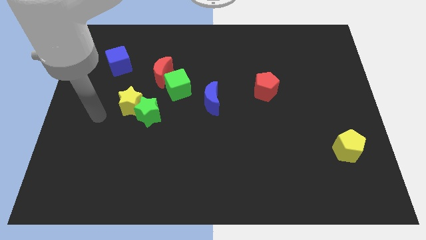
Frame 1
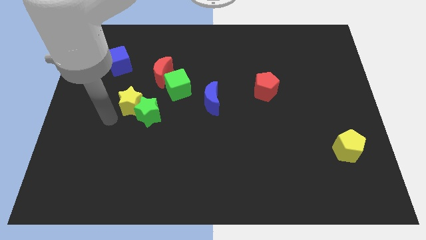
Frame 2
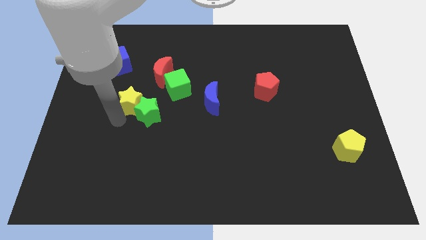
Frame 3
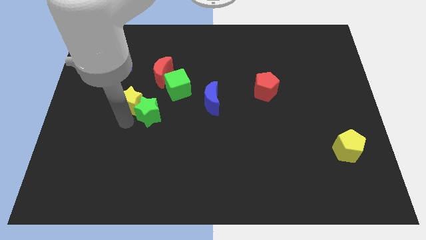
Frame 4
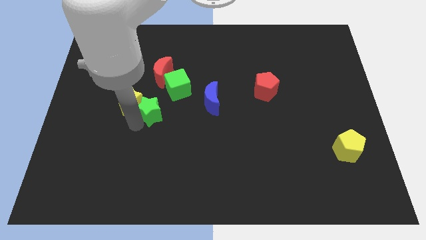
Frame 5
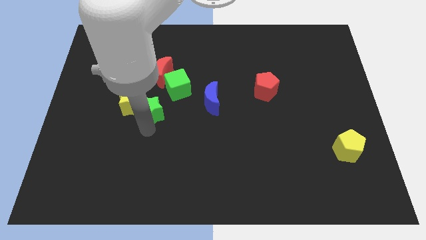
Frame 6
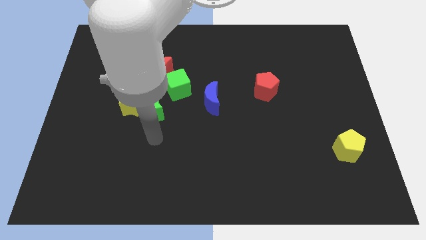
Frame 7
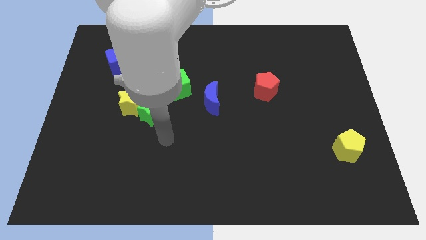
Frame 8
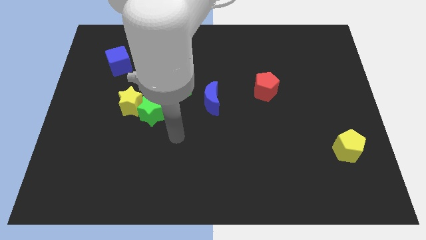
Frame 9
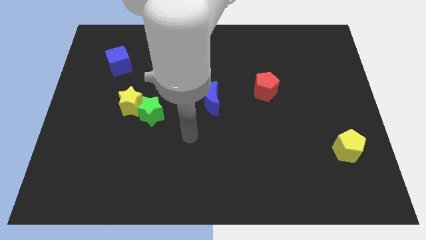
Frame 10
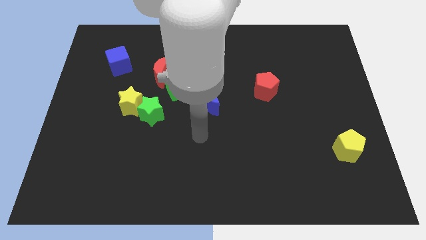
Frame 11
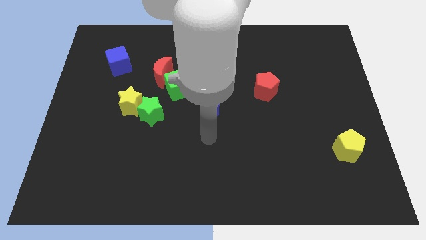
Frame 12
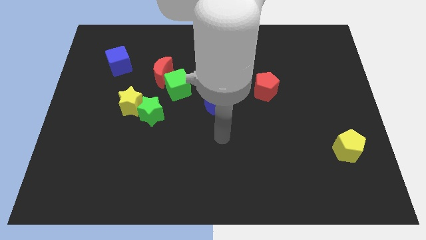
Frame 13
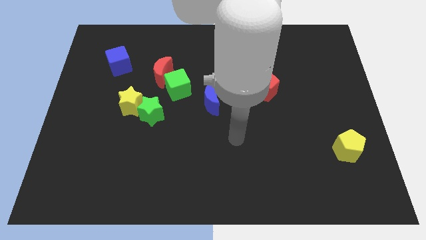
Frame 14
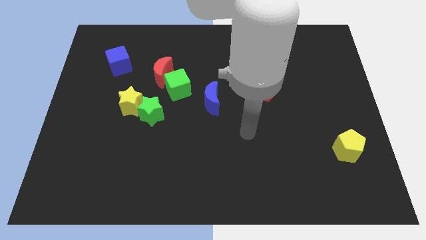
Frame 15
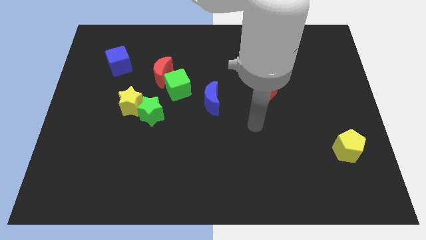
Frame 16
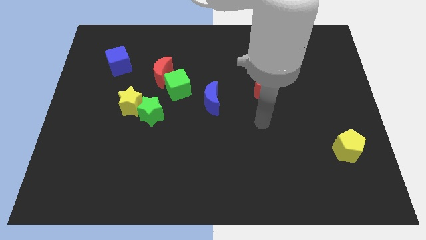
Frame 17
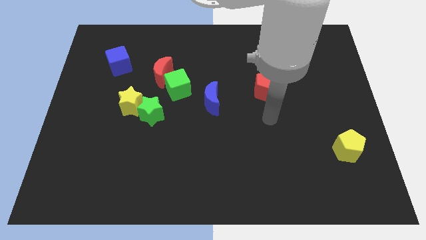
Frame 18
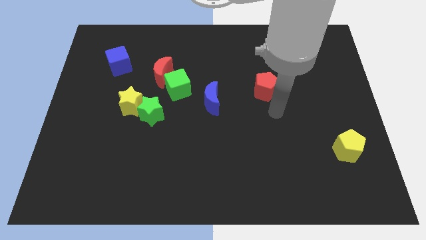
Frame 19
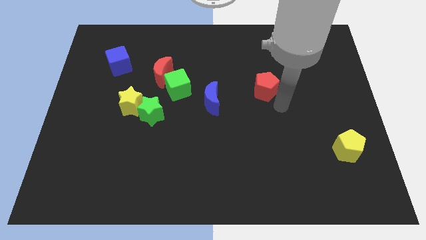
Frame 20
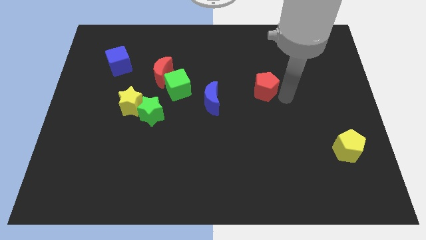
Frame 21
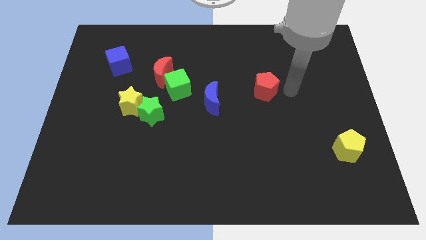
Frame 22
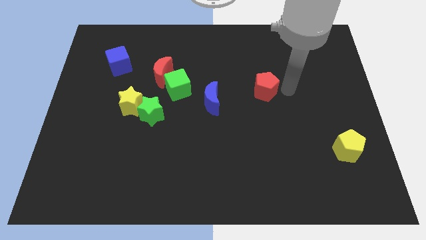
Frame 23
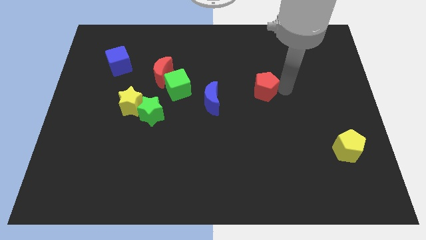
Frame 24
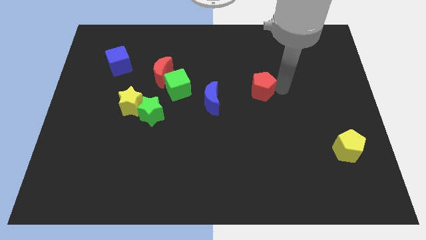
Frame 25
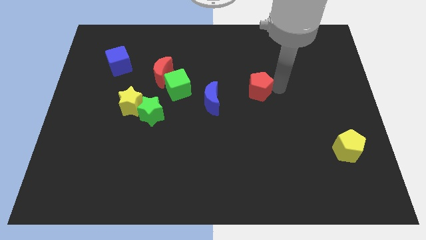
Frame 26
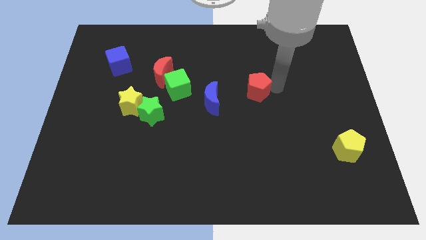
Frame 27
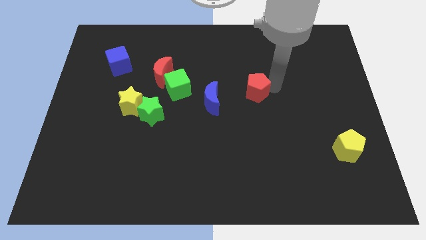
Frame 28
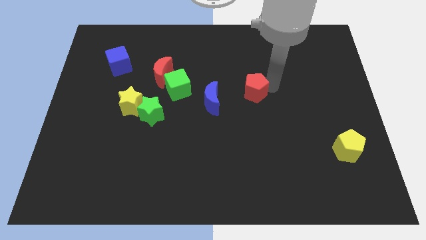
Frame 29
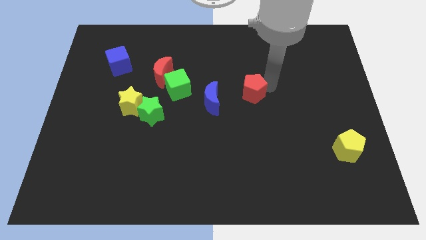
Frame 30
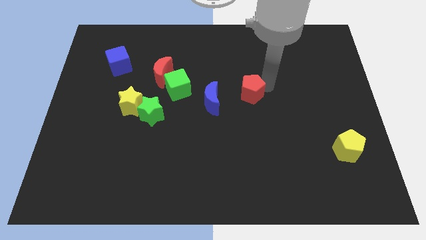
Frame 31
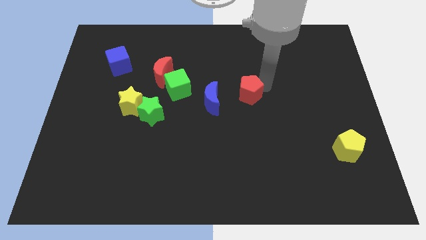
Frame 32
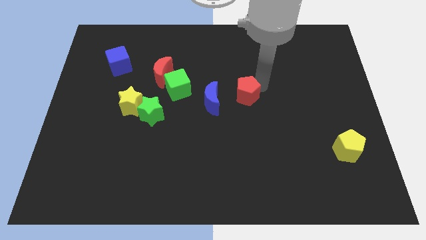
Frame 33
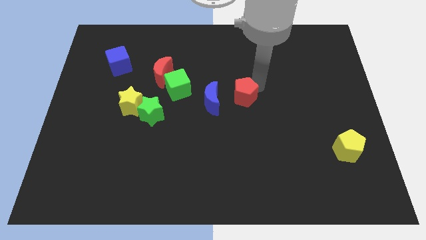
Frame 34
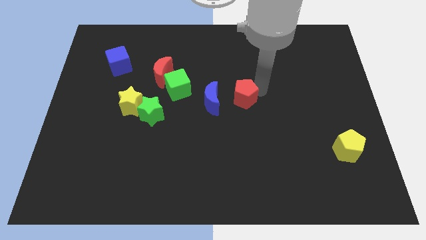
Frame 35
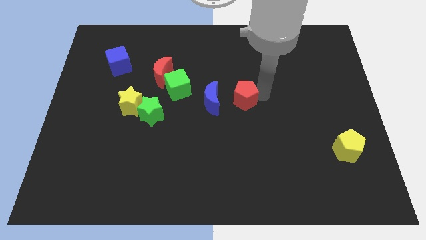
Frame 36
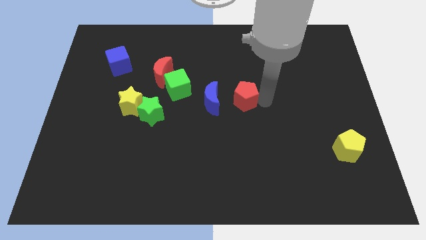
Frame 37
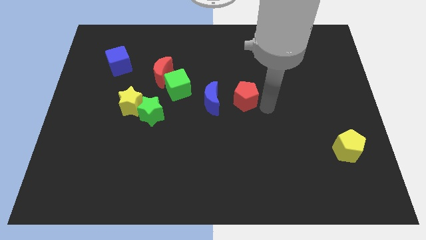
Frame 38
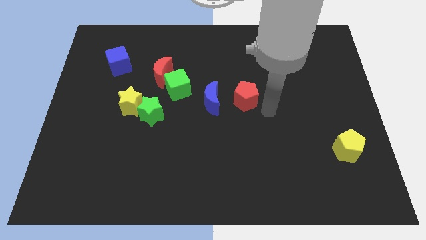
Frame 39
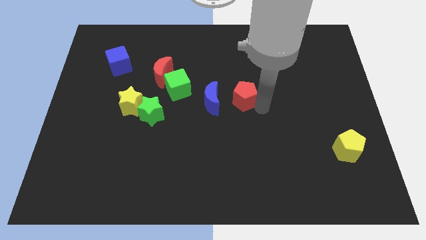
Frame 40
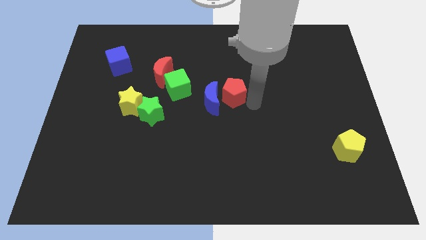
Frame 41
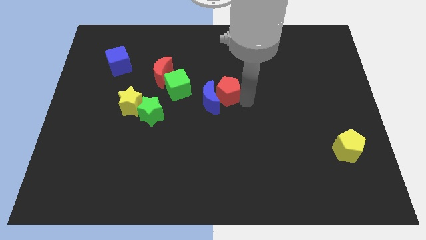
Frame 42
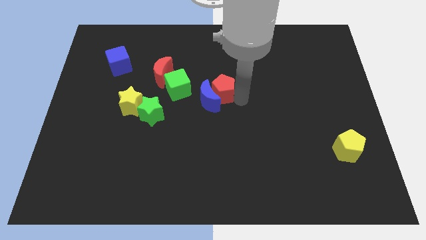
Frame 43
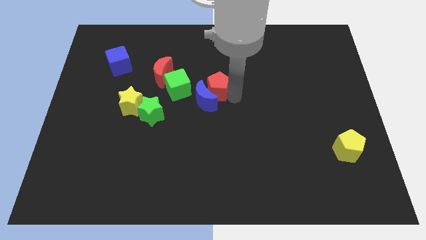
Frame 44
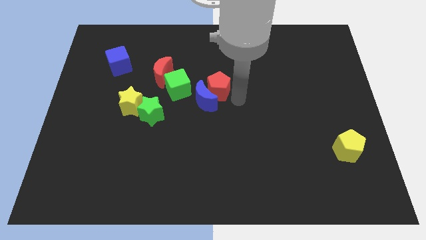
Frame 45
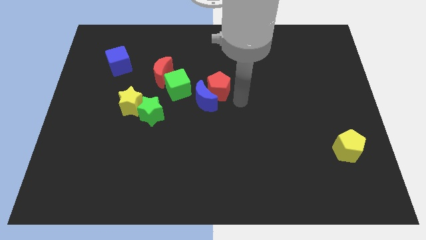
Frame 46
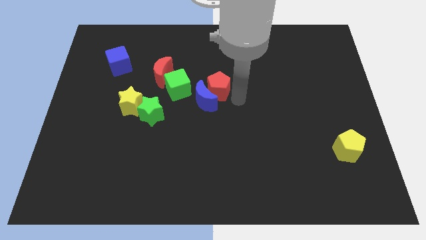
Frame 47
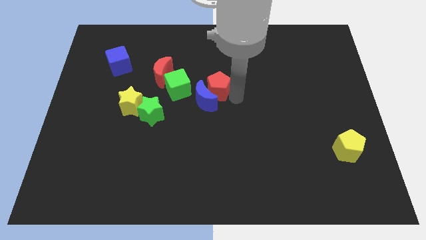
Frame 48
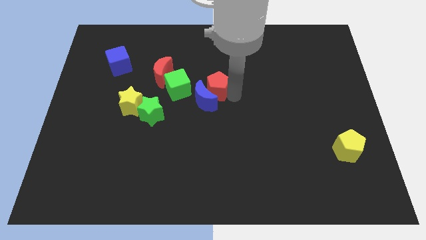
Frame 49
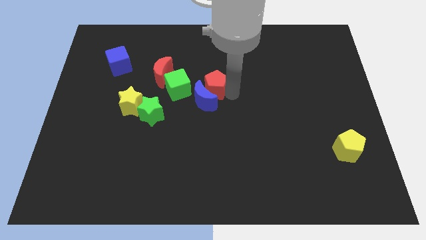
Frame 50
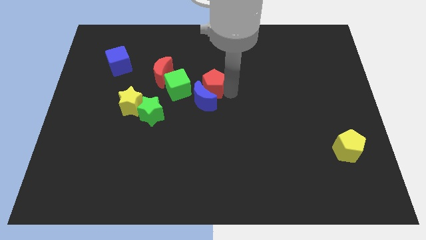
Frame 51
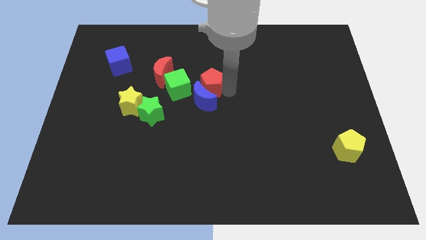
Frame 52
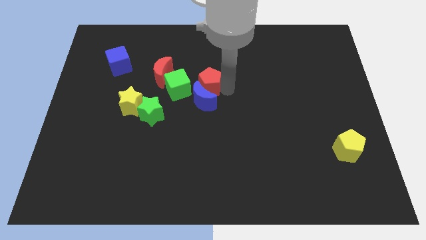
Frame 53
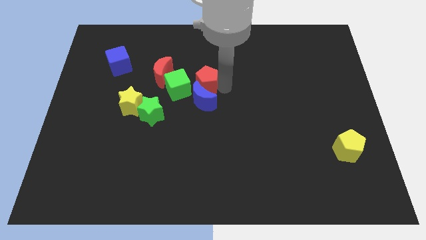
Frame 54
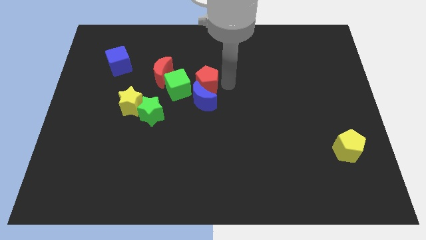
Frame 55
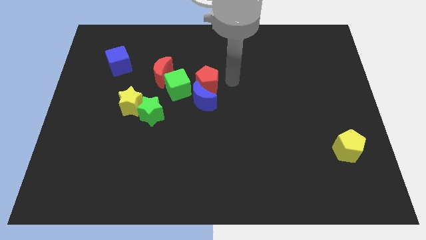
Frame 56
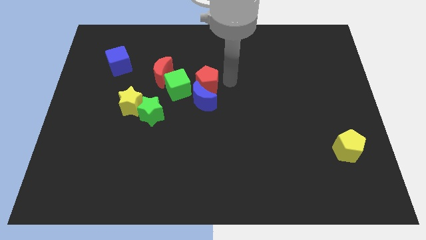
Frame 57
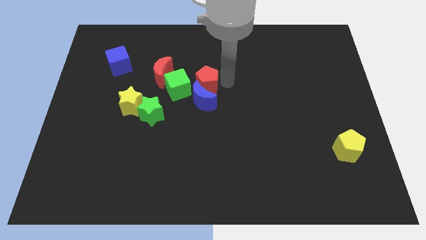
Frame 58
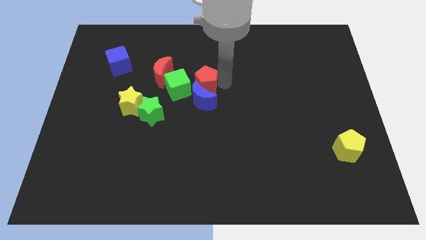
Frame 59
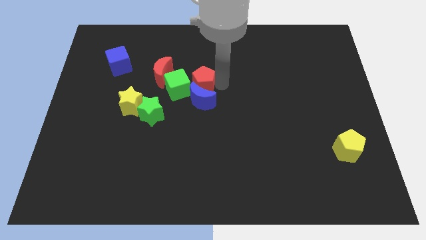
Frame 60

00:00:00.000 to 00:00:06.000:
move the red pentagon to the green cube
